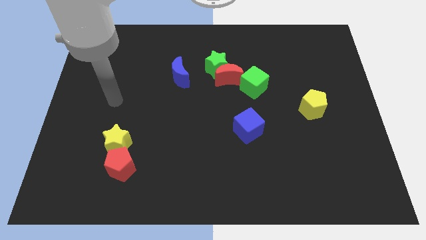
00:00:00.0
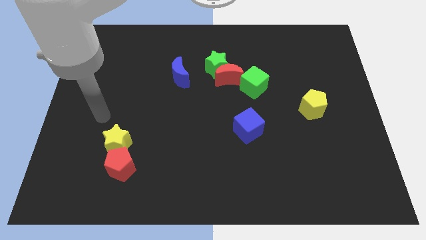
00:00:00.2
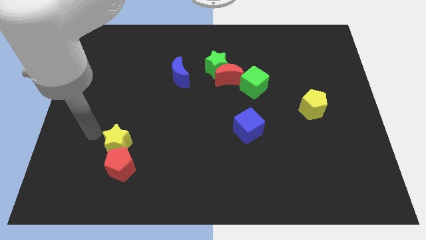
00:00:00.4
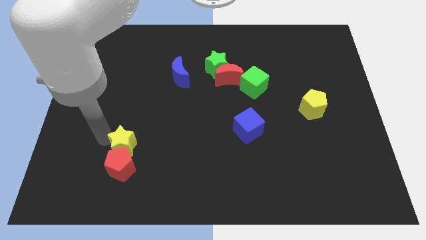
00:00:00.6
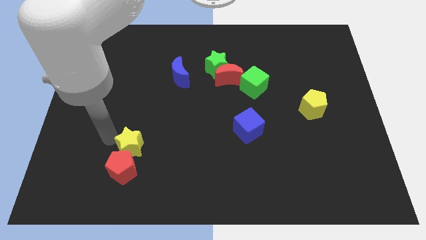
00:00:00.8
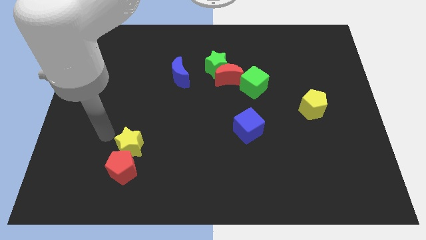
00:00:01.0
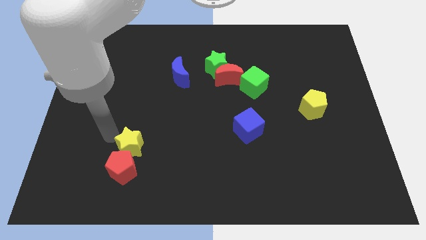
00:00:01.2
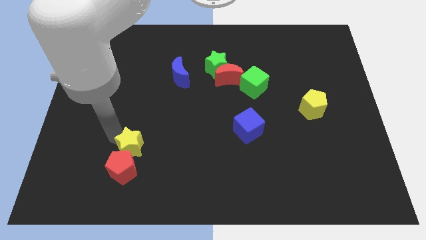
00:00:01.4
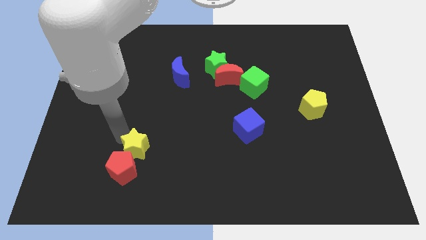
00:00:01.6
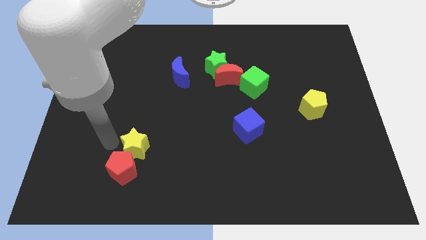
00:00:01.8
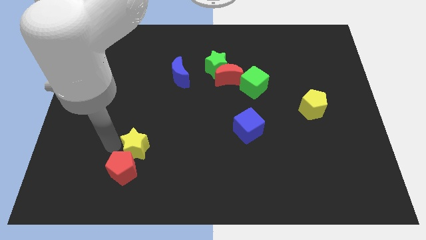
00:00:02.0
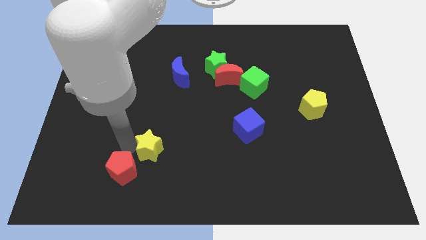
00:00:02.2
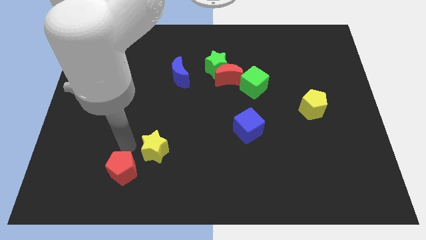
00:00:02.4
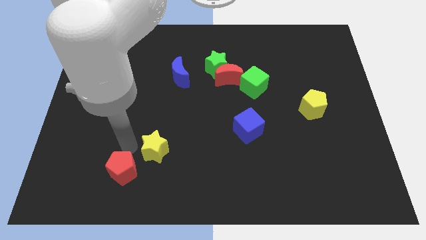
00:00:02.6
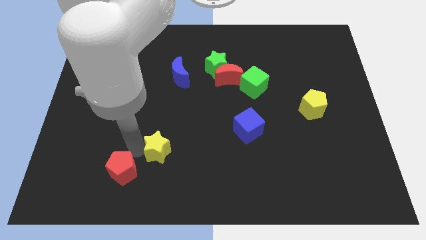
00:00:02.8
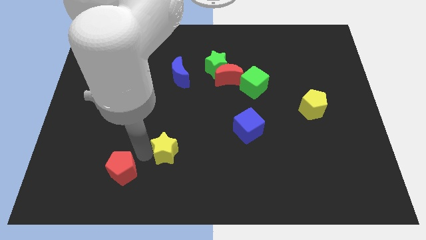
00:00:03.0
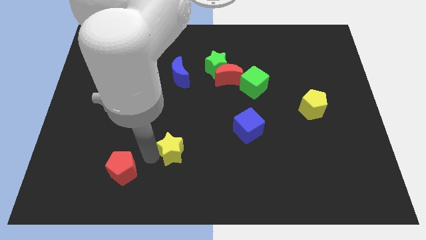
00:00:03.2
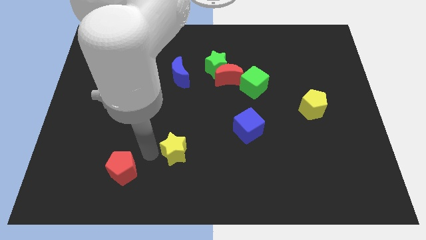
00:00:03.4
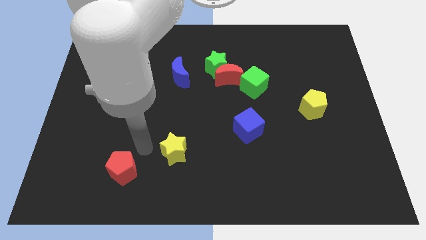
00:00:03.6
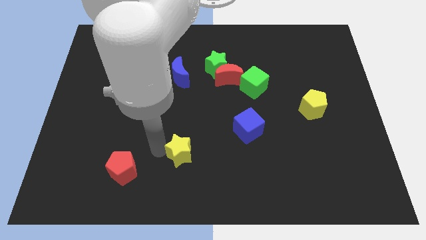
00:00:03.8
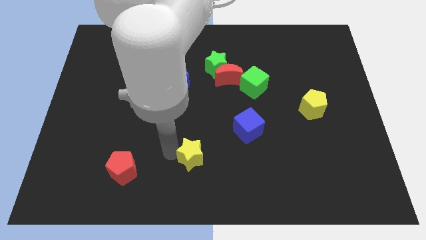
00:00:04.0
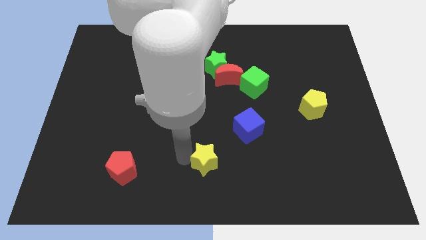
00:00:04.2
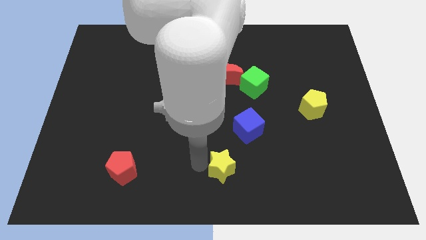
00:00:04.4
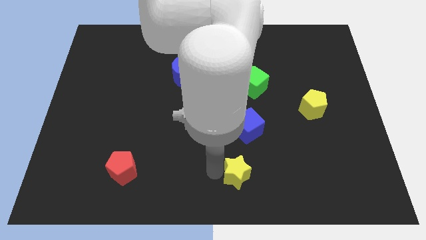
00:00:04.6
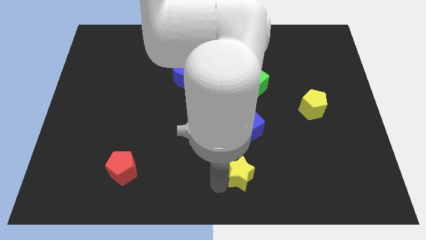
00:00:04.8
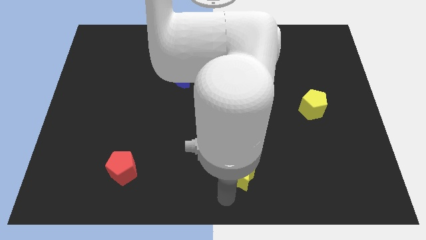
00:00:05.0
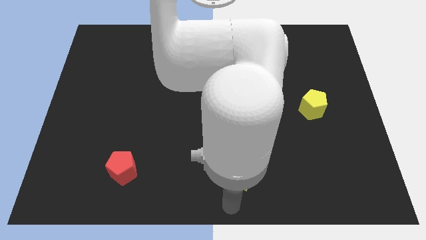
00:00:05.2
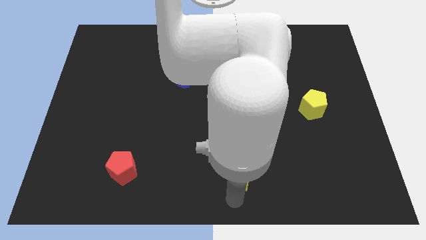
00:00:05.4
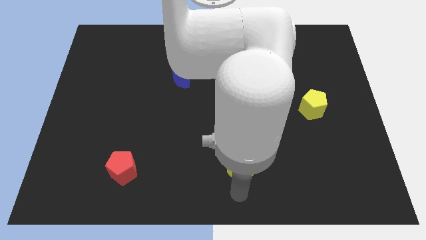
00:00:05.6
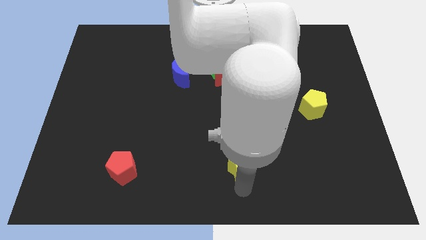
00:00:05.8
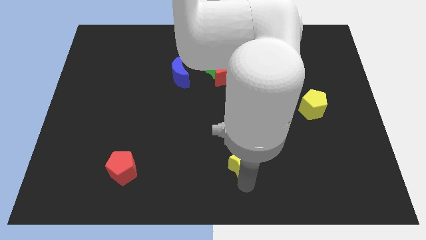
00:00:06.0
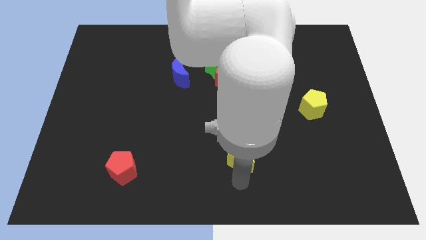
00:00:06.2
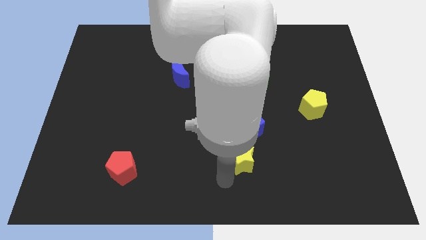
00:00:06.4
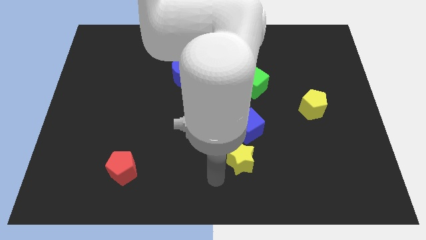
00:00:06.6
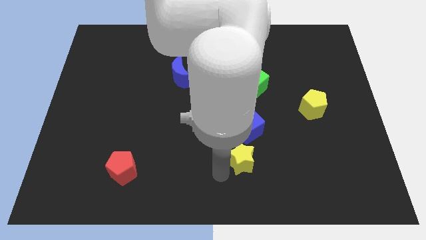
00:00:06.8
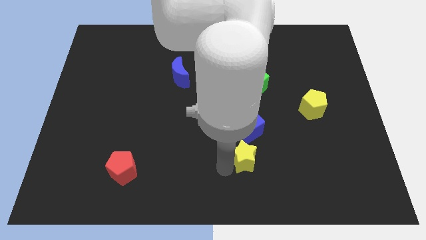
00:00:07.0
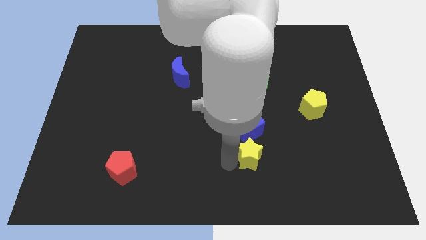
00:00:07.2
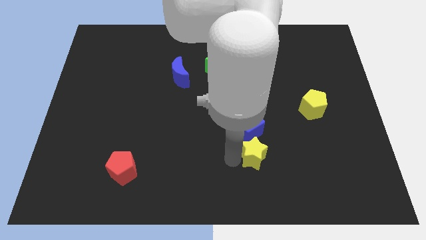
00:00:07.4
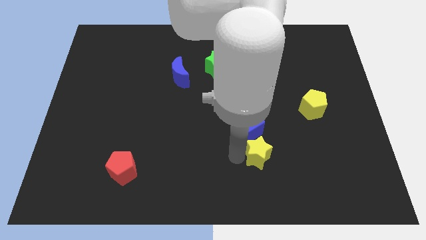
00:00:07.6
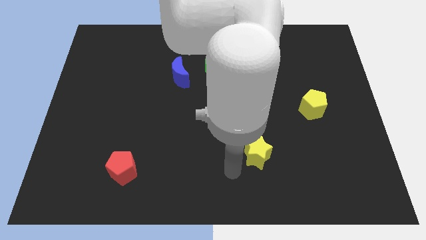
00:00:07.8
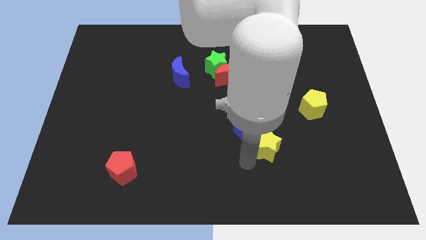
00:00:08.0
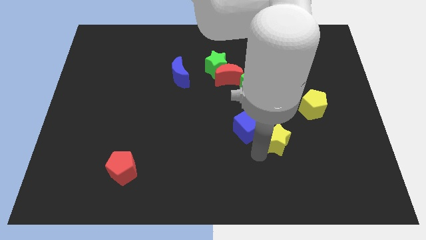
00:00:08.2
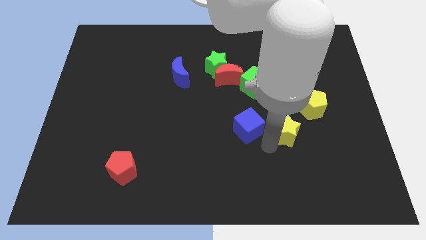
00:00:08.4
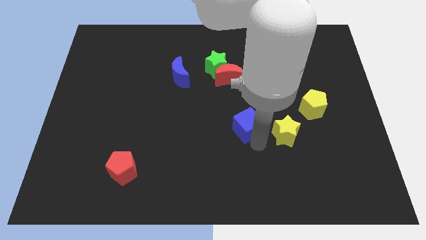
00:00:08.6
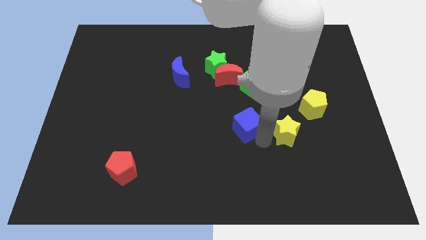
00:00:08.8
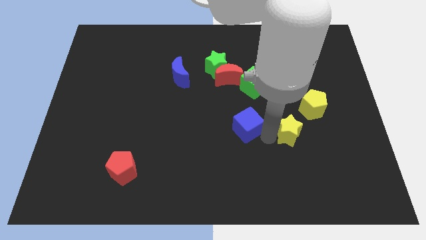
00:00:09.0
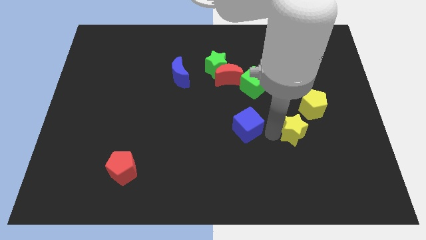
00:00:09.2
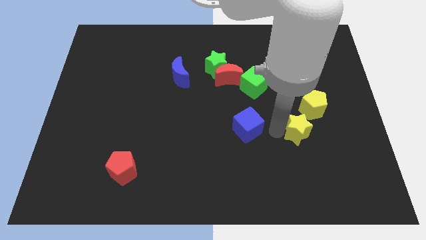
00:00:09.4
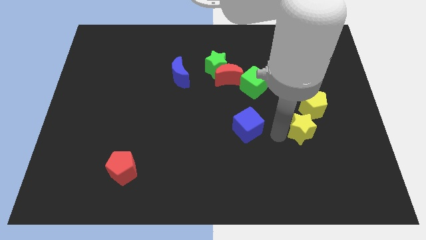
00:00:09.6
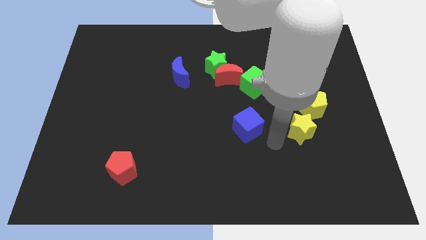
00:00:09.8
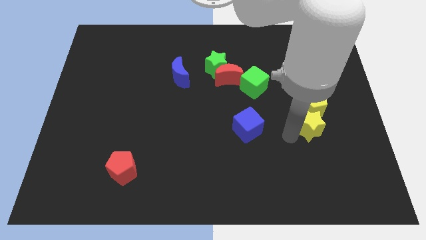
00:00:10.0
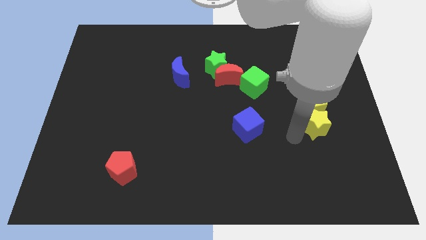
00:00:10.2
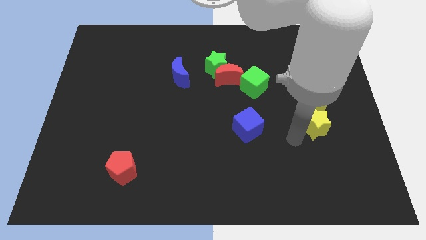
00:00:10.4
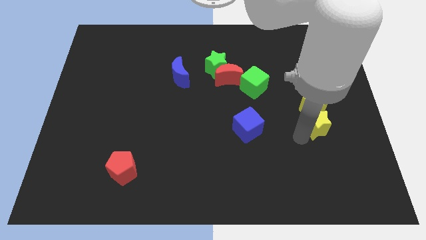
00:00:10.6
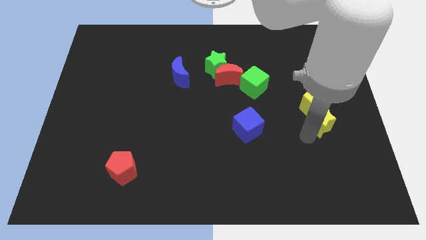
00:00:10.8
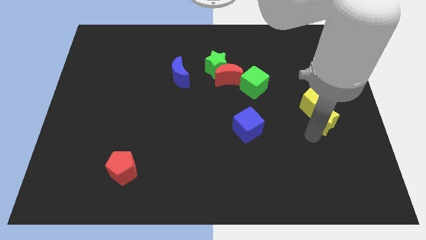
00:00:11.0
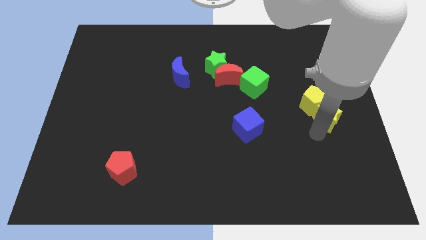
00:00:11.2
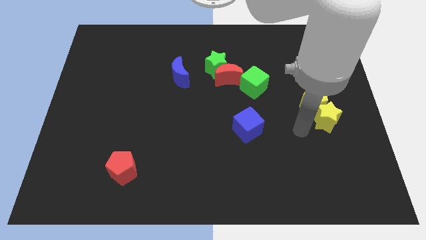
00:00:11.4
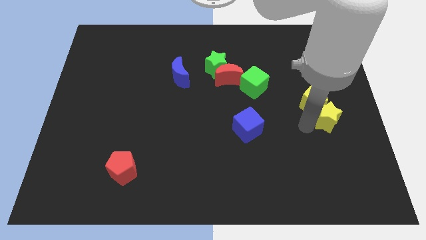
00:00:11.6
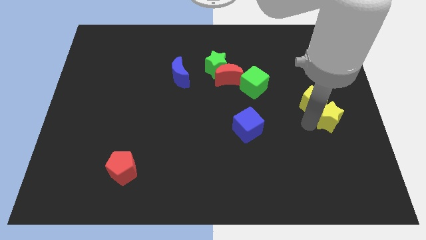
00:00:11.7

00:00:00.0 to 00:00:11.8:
slide the yellow star to the right side of the board

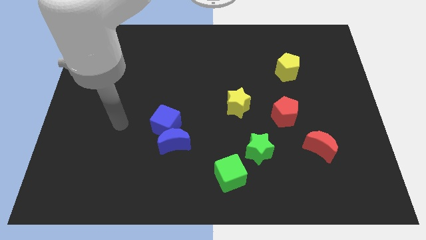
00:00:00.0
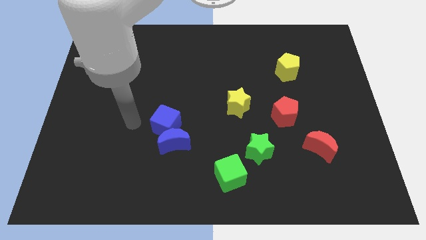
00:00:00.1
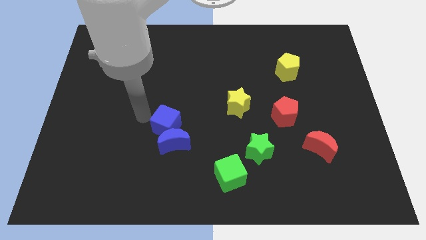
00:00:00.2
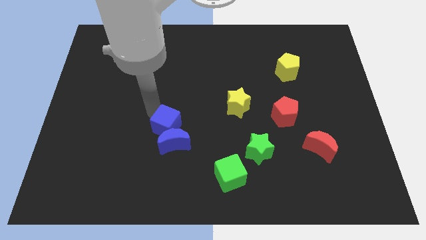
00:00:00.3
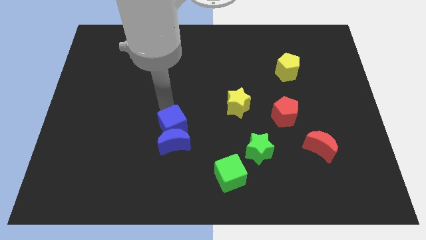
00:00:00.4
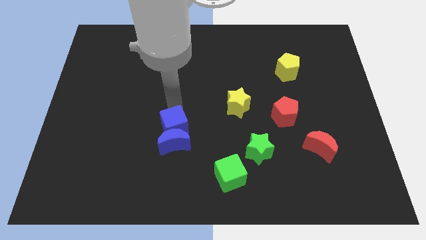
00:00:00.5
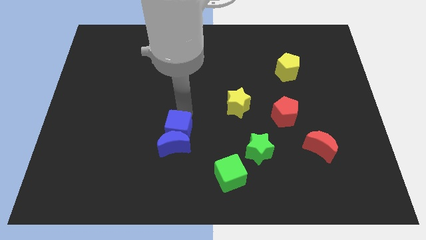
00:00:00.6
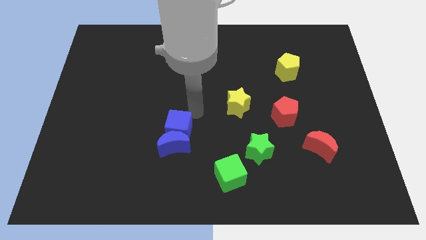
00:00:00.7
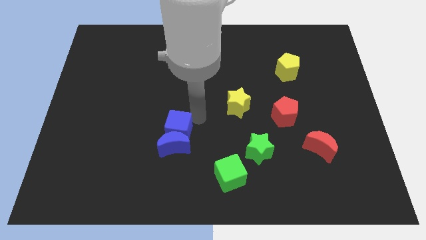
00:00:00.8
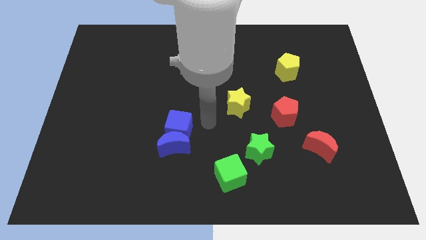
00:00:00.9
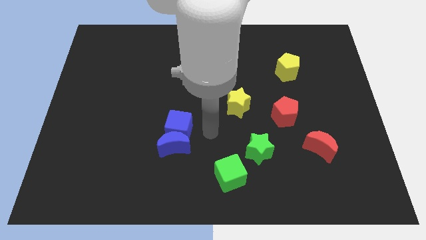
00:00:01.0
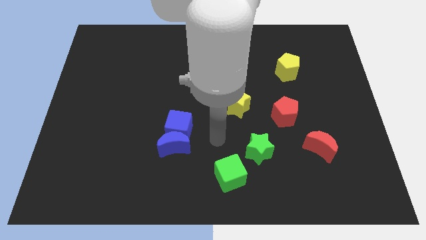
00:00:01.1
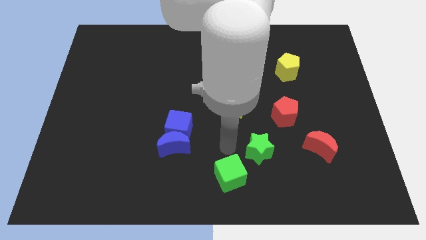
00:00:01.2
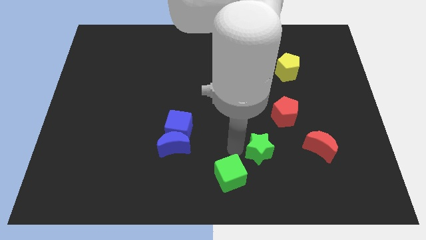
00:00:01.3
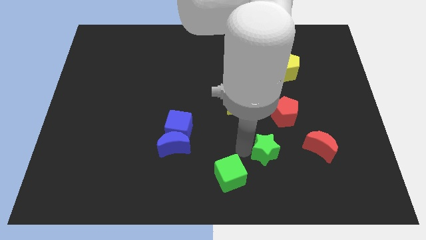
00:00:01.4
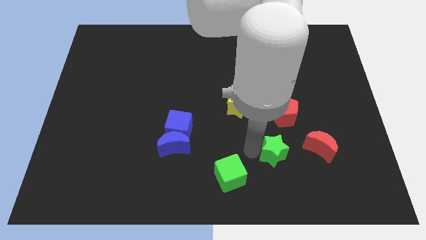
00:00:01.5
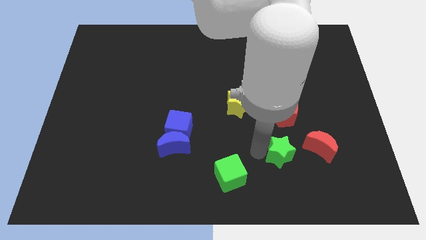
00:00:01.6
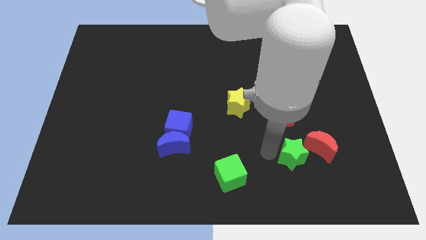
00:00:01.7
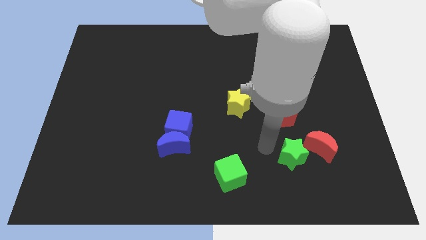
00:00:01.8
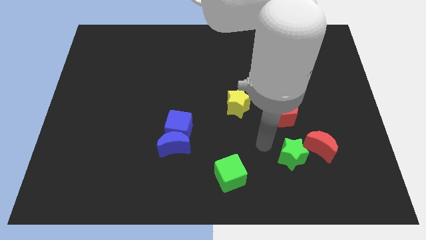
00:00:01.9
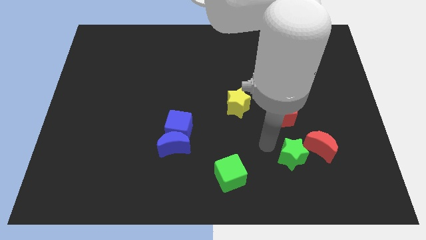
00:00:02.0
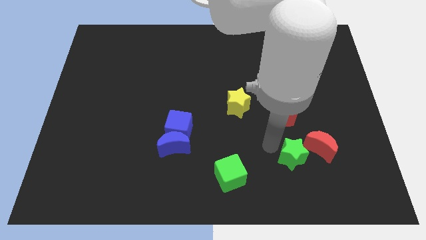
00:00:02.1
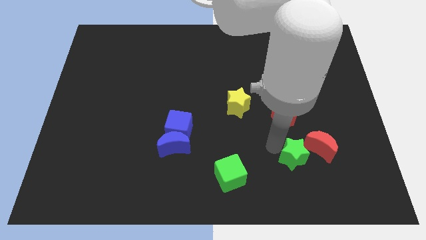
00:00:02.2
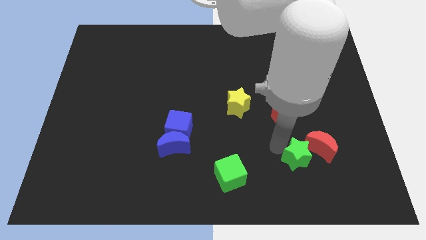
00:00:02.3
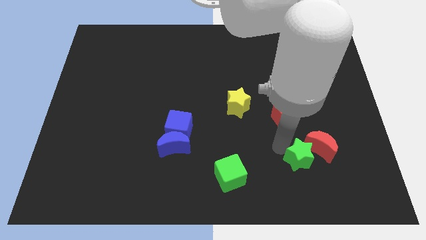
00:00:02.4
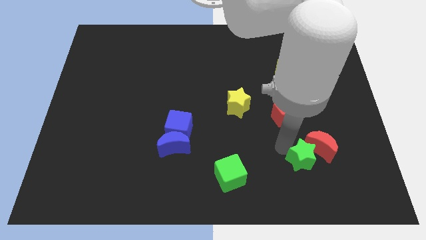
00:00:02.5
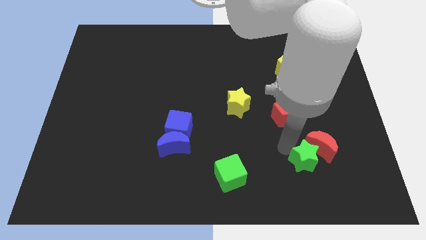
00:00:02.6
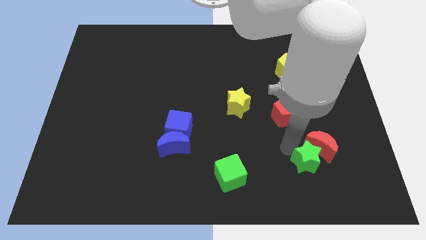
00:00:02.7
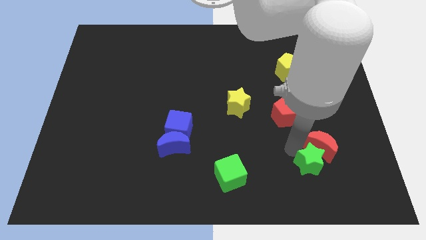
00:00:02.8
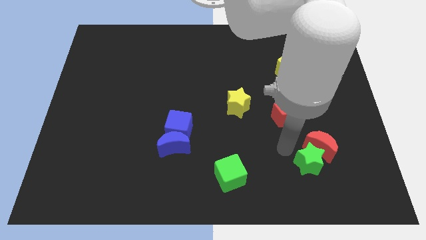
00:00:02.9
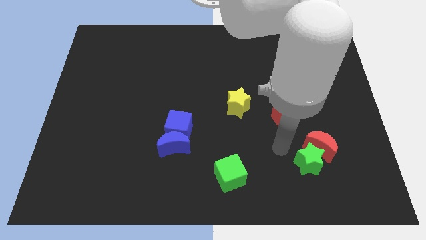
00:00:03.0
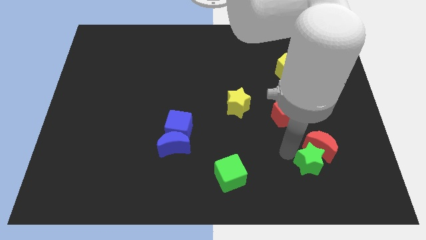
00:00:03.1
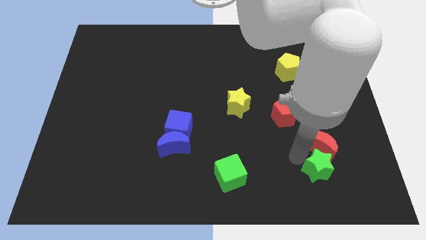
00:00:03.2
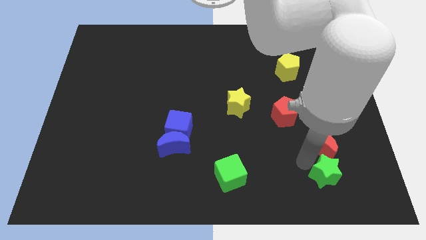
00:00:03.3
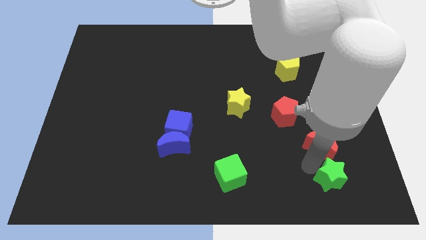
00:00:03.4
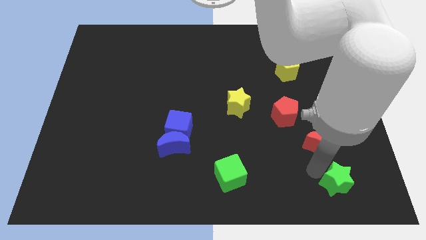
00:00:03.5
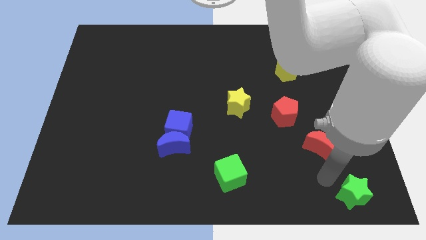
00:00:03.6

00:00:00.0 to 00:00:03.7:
put the green star to the bottom right
